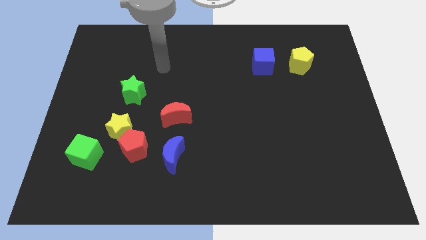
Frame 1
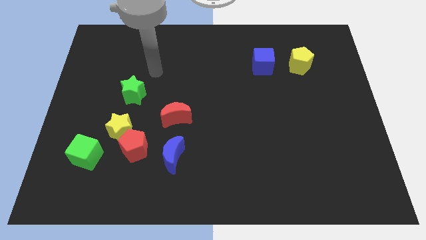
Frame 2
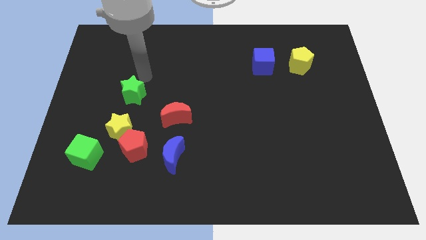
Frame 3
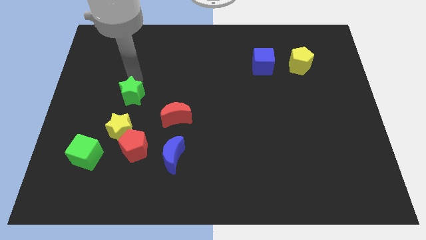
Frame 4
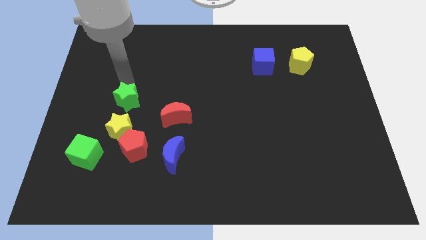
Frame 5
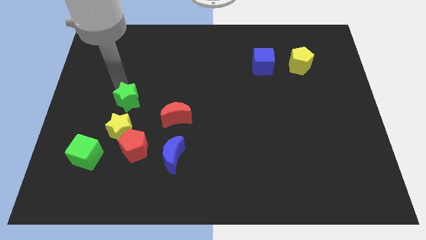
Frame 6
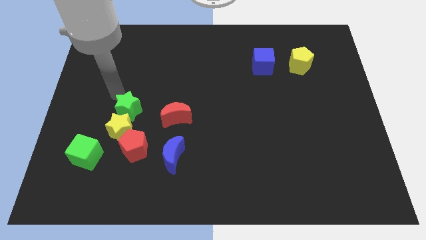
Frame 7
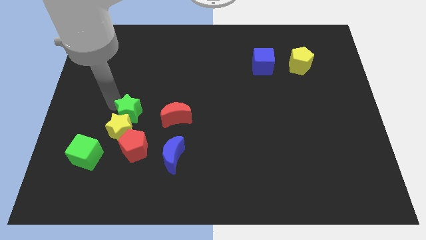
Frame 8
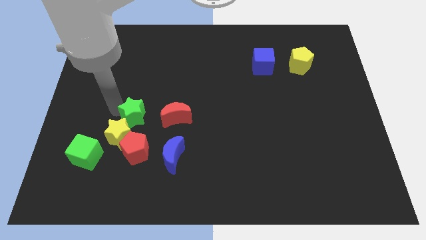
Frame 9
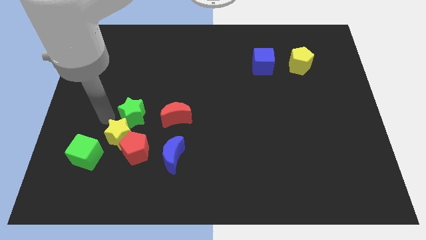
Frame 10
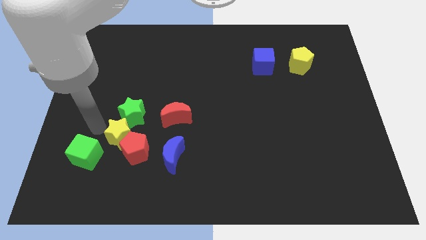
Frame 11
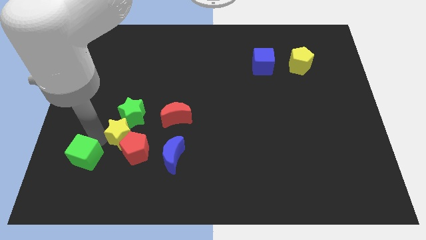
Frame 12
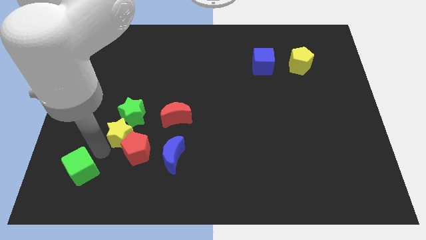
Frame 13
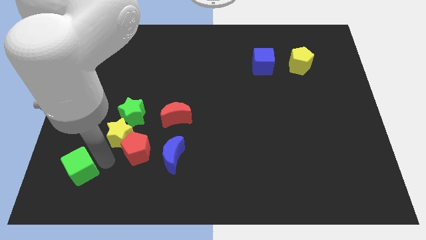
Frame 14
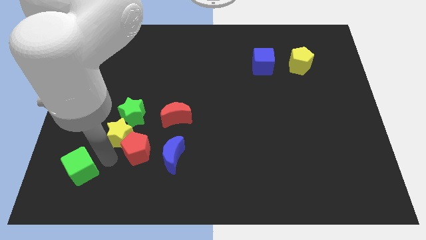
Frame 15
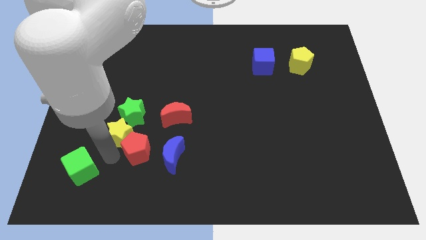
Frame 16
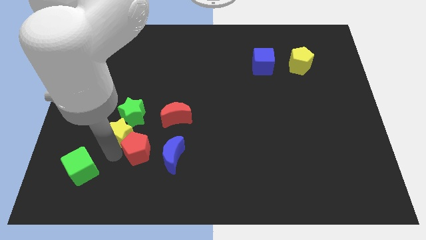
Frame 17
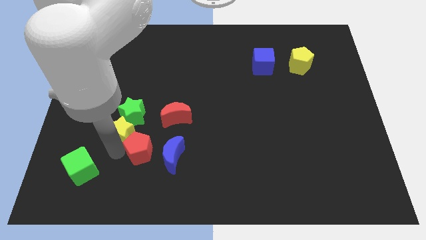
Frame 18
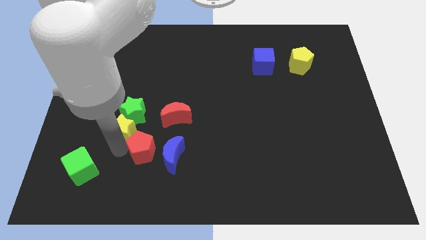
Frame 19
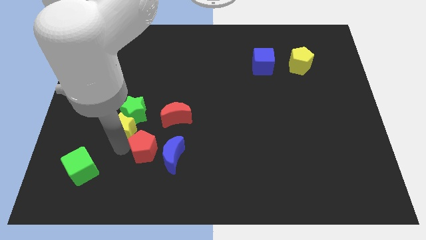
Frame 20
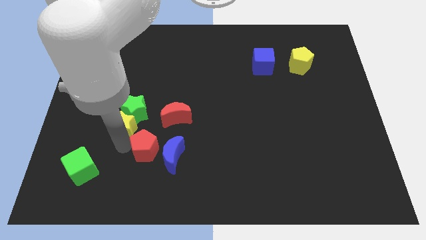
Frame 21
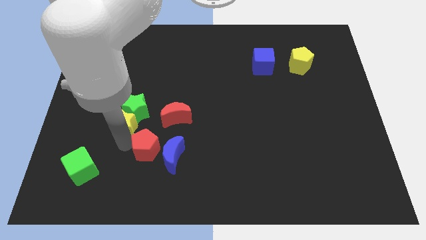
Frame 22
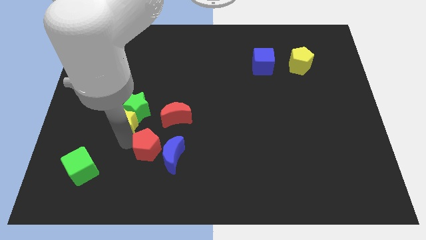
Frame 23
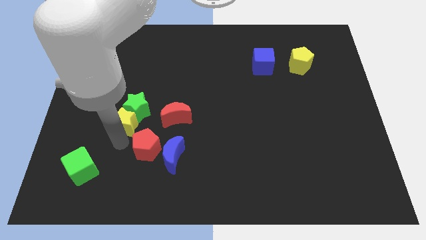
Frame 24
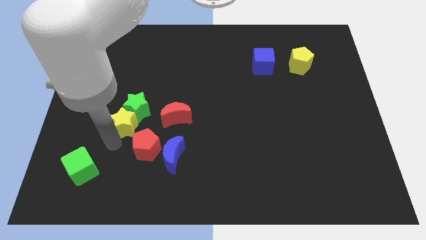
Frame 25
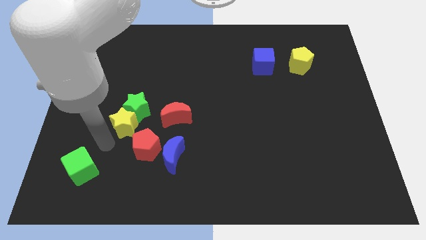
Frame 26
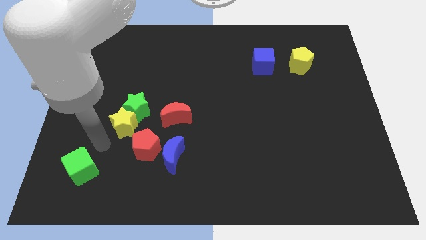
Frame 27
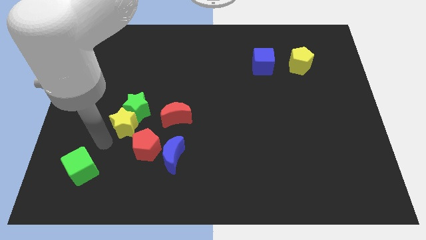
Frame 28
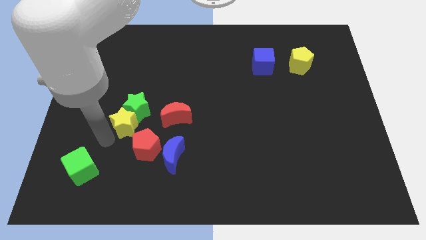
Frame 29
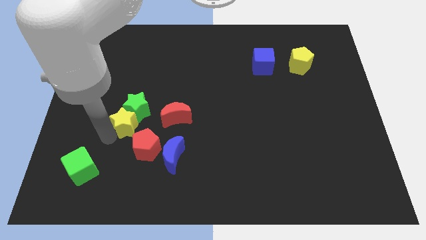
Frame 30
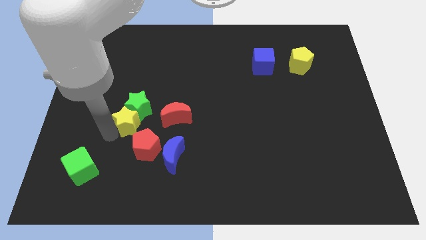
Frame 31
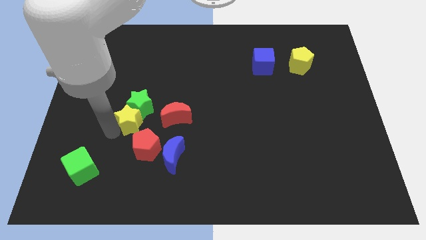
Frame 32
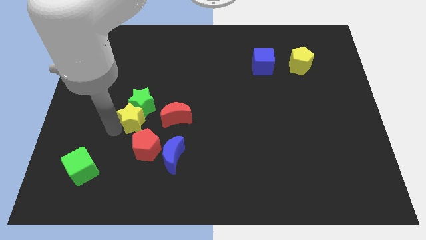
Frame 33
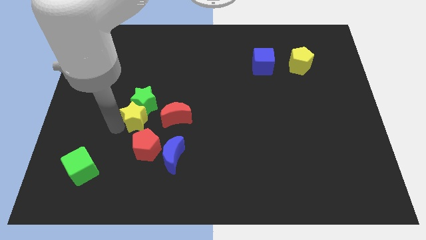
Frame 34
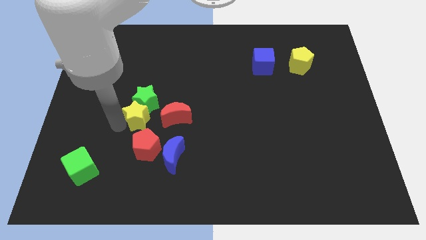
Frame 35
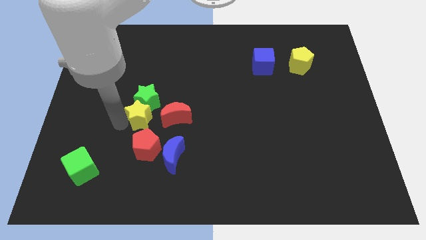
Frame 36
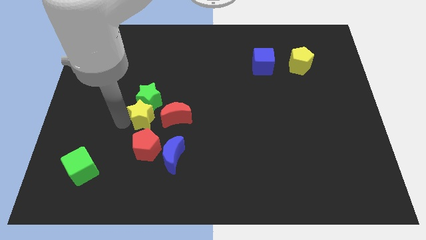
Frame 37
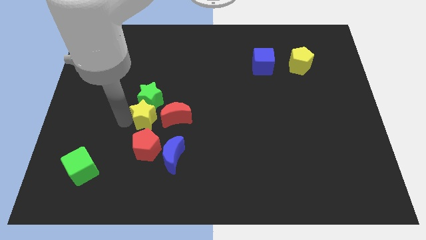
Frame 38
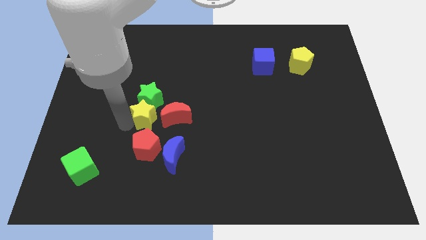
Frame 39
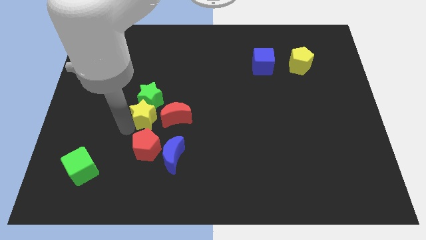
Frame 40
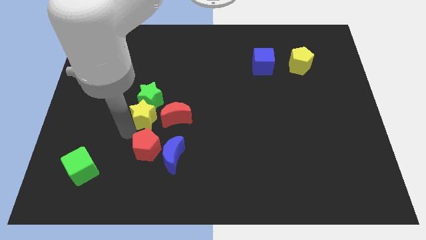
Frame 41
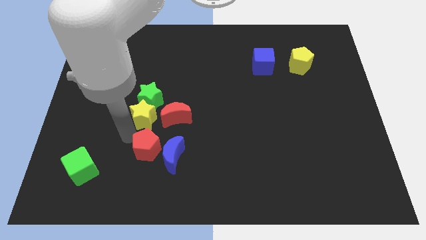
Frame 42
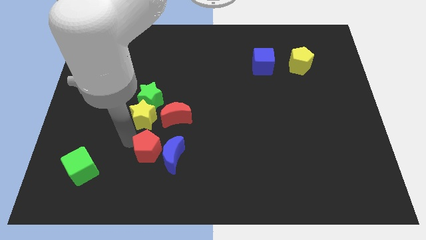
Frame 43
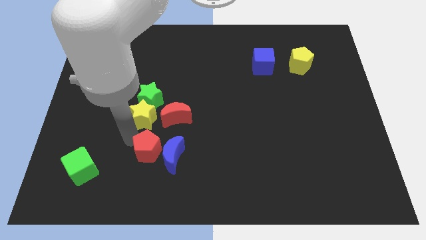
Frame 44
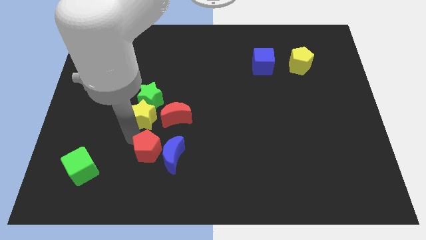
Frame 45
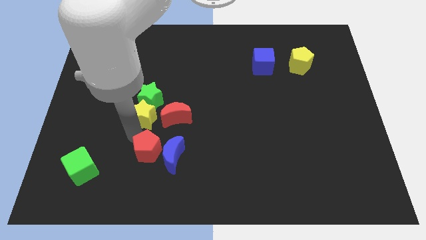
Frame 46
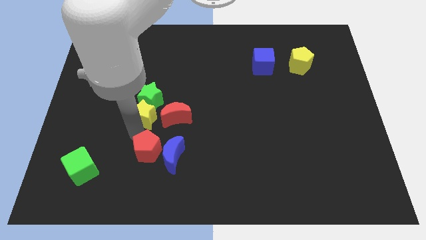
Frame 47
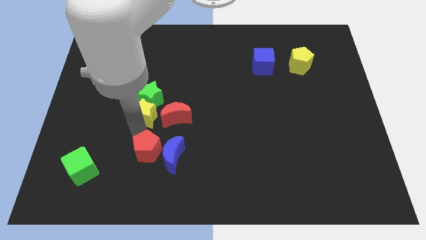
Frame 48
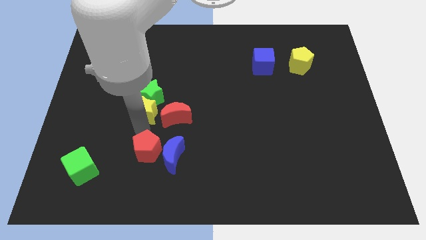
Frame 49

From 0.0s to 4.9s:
push the yellow star upwards and to the right a bit

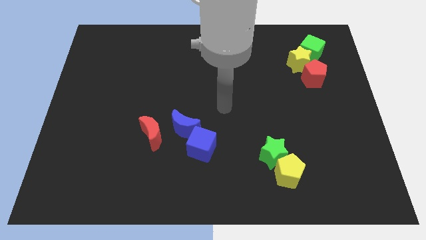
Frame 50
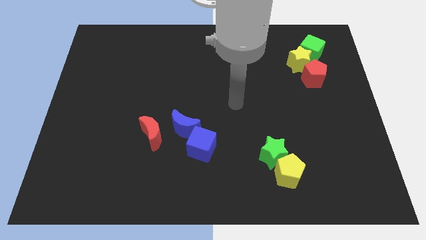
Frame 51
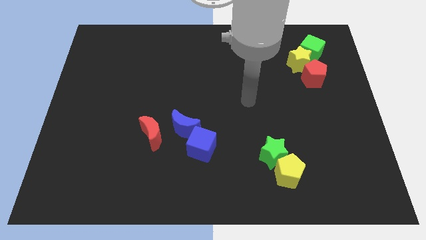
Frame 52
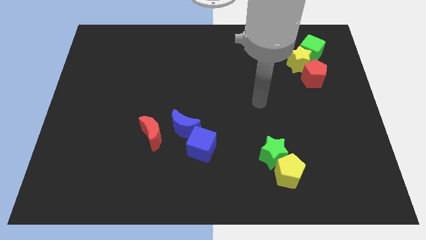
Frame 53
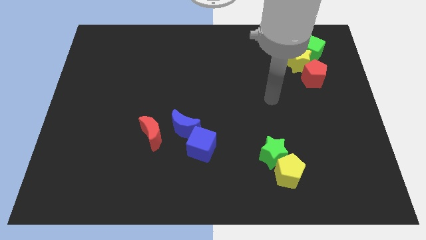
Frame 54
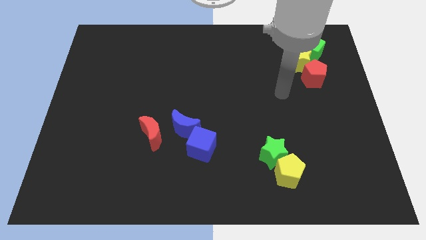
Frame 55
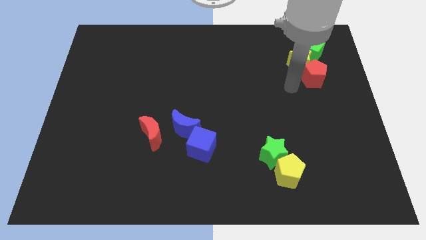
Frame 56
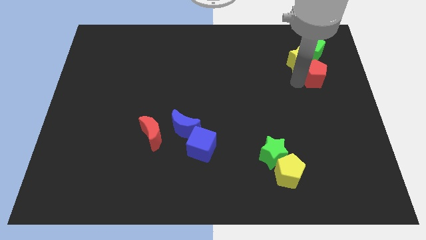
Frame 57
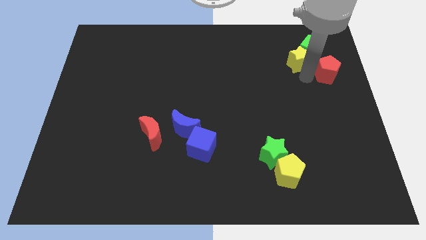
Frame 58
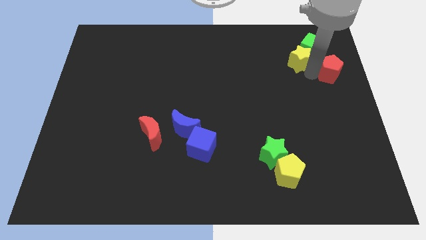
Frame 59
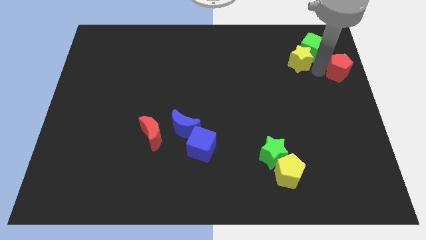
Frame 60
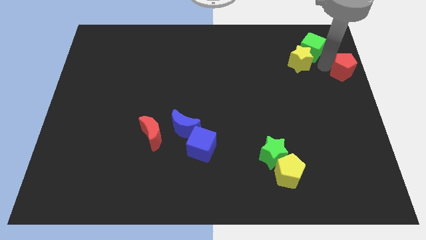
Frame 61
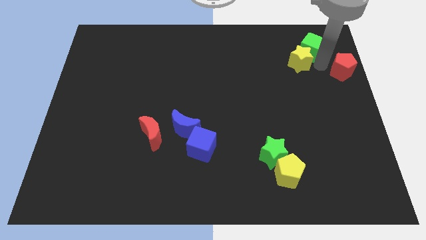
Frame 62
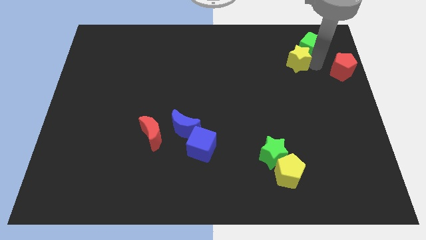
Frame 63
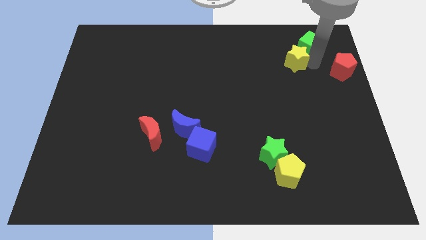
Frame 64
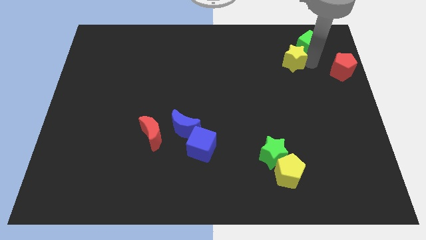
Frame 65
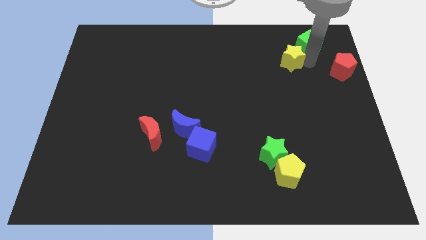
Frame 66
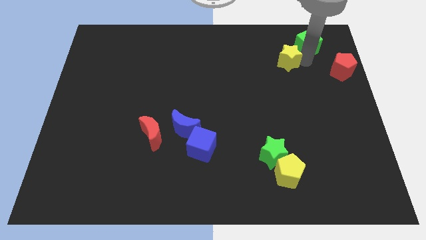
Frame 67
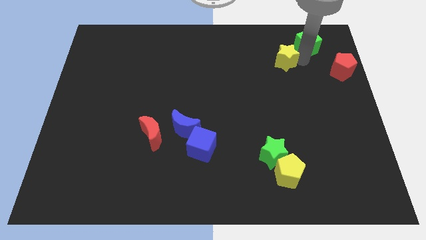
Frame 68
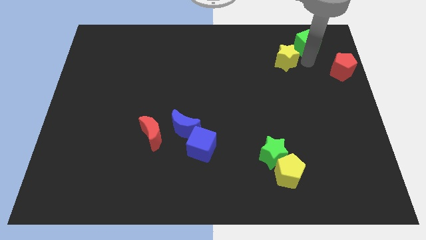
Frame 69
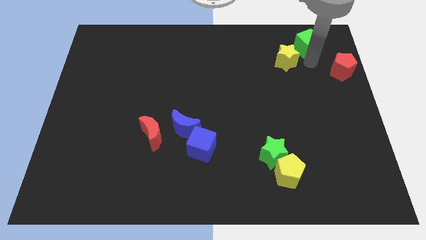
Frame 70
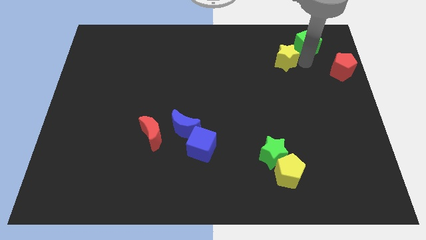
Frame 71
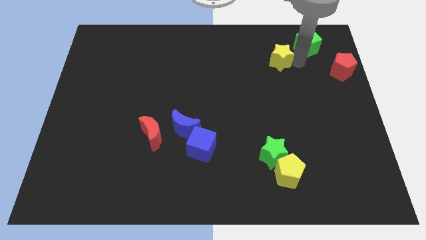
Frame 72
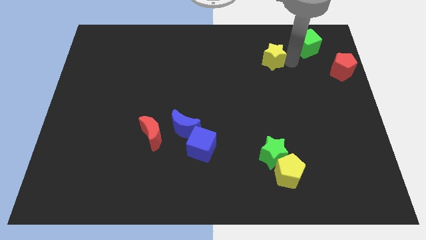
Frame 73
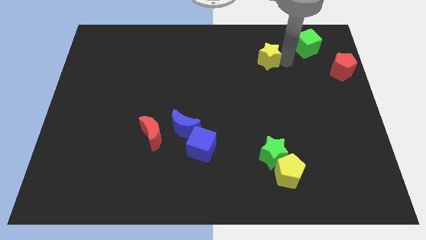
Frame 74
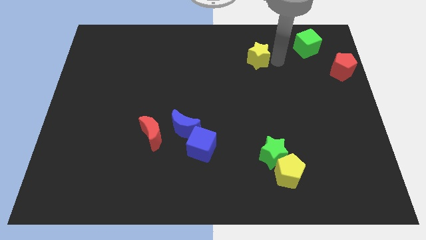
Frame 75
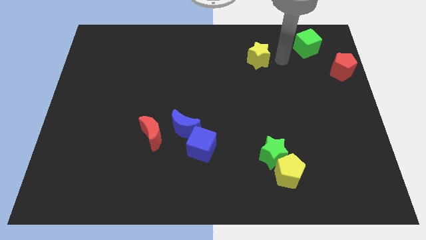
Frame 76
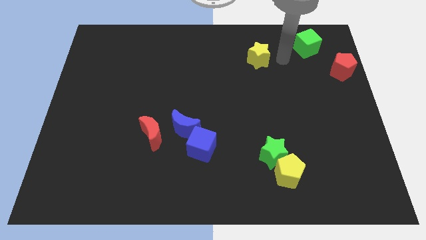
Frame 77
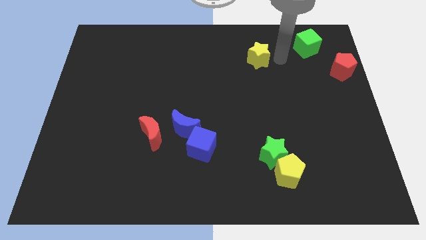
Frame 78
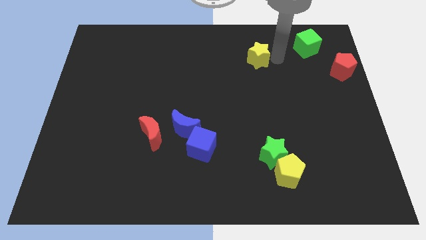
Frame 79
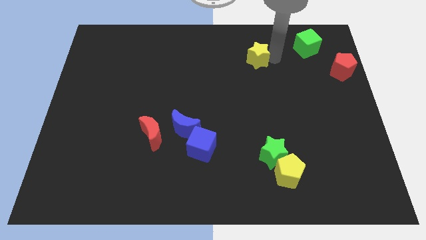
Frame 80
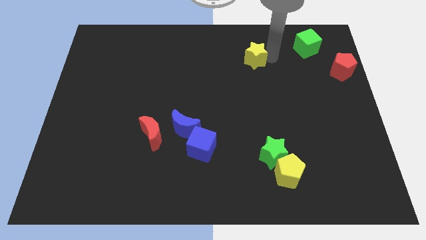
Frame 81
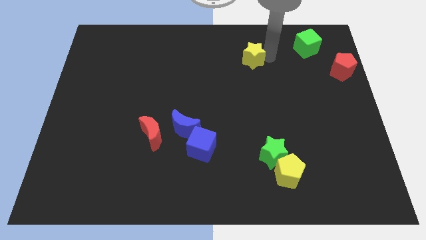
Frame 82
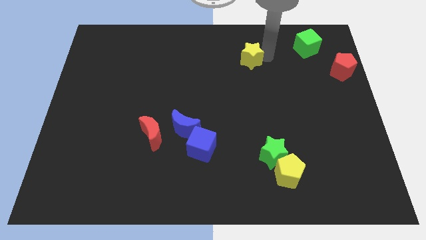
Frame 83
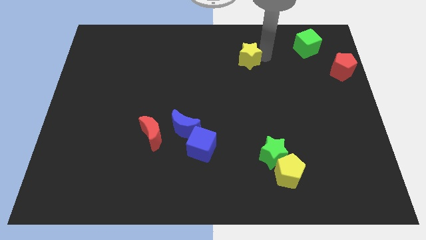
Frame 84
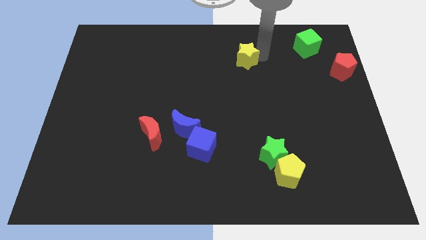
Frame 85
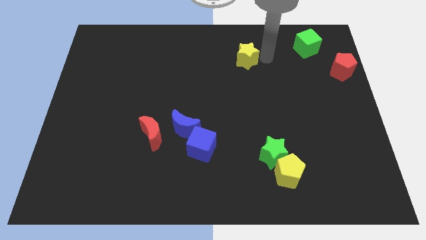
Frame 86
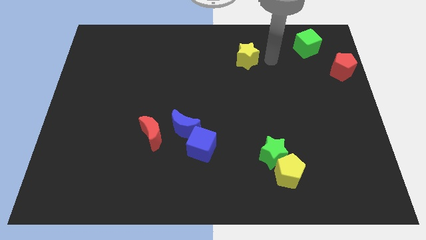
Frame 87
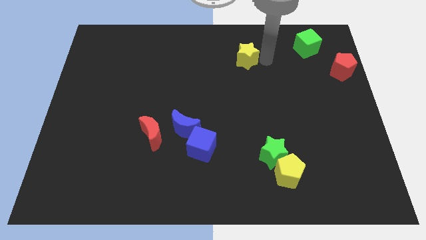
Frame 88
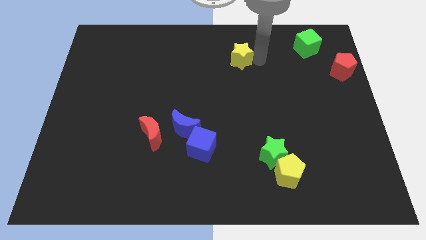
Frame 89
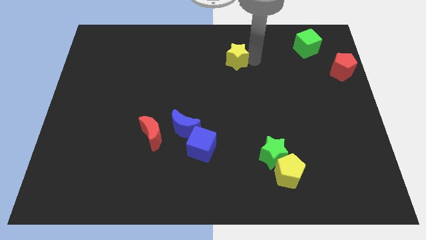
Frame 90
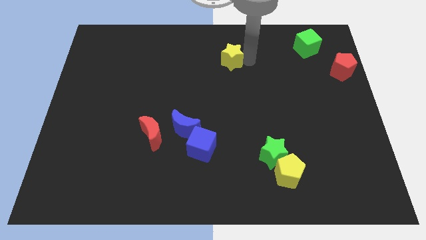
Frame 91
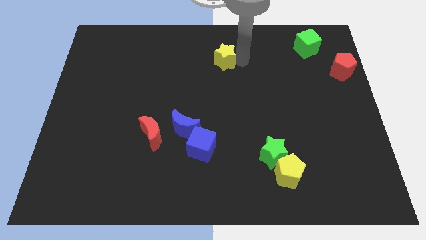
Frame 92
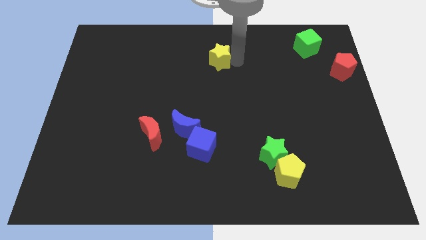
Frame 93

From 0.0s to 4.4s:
slide the yellow star to the left
